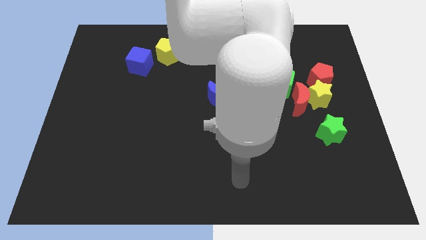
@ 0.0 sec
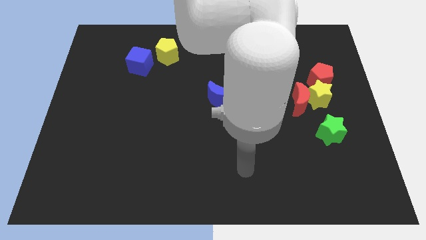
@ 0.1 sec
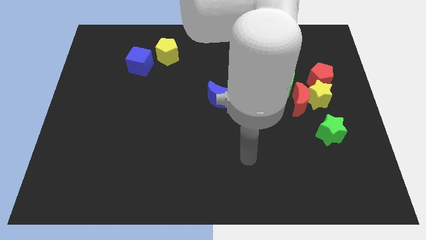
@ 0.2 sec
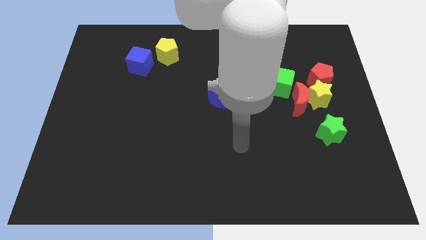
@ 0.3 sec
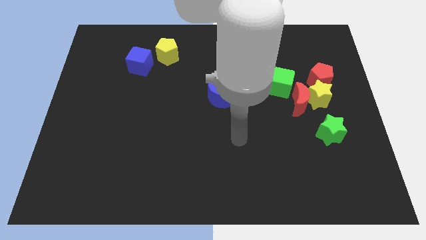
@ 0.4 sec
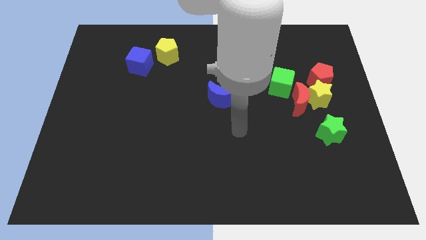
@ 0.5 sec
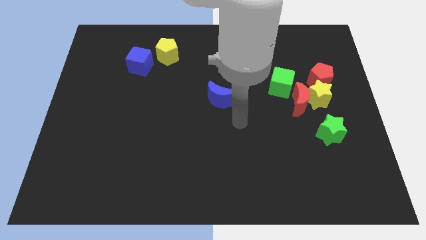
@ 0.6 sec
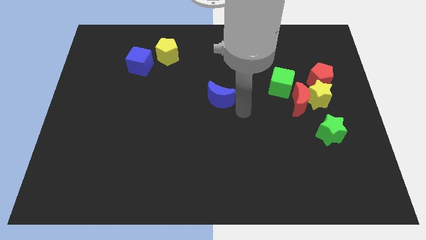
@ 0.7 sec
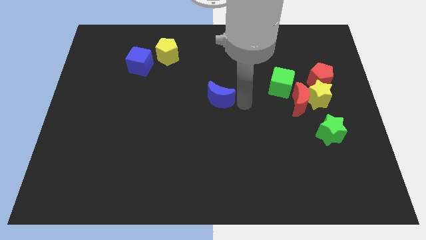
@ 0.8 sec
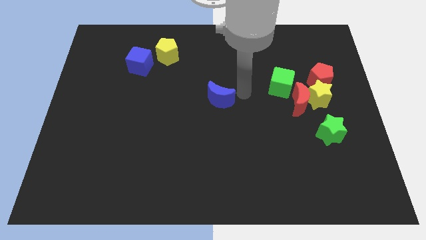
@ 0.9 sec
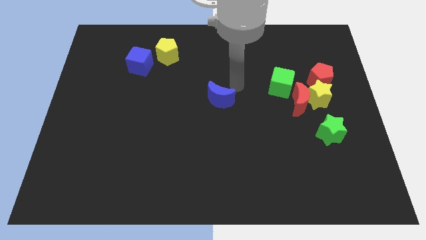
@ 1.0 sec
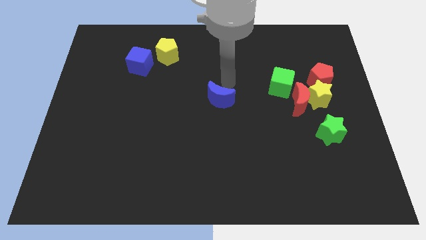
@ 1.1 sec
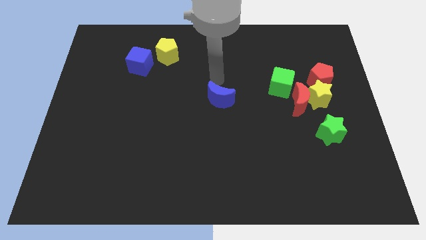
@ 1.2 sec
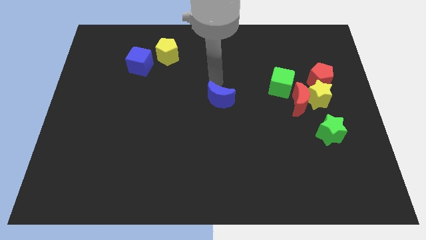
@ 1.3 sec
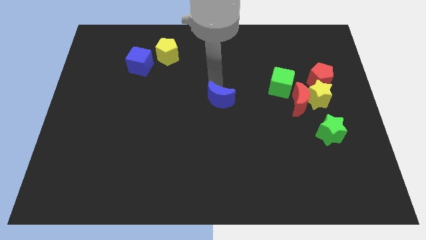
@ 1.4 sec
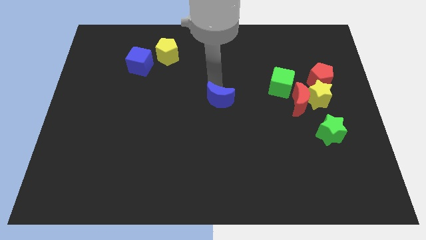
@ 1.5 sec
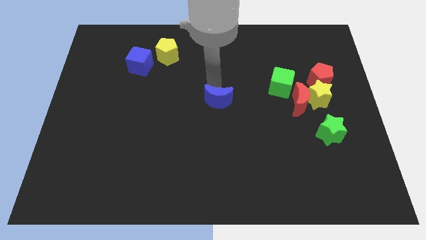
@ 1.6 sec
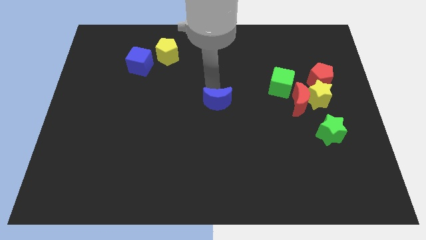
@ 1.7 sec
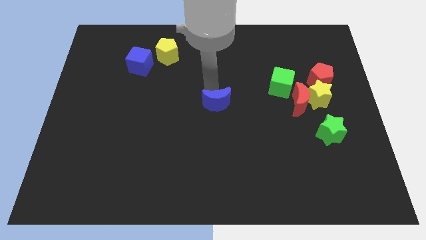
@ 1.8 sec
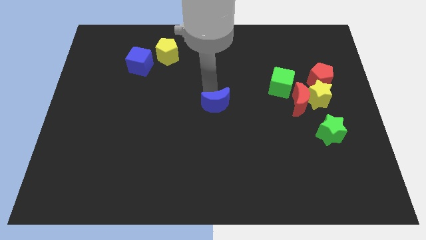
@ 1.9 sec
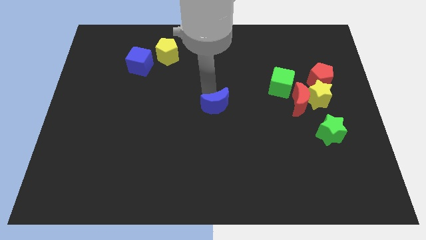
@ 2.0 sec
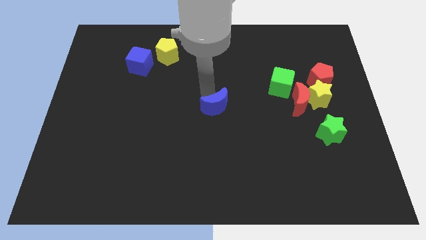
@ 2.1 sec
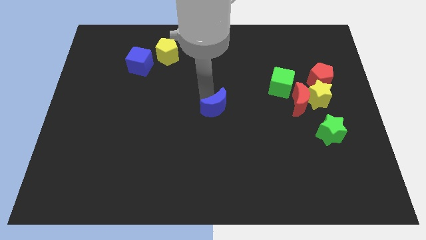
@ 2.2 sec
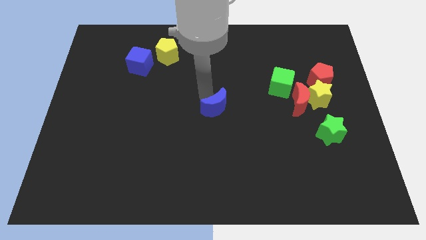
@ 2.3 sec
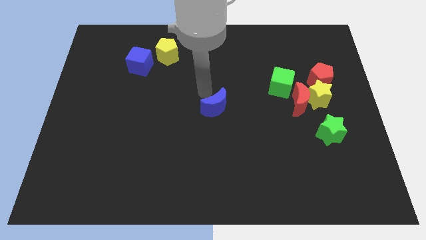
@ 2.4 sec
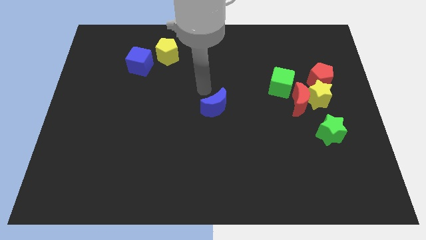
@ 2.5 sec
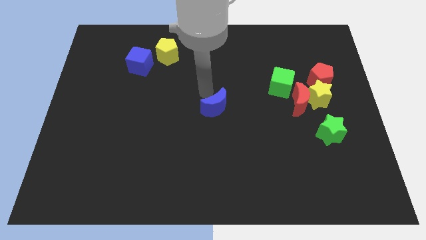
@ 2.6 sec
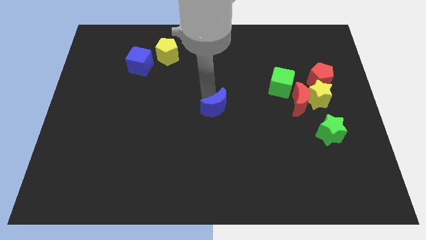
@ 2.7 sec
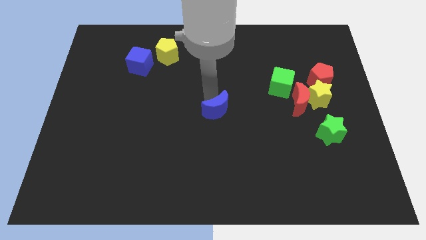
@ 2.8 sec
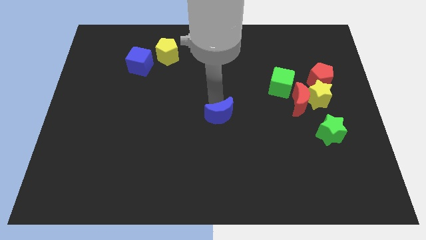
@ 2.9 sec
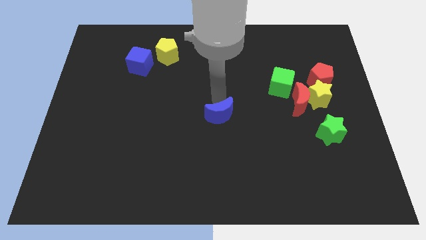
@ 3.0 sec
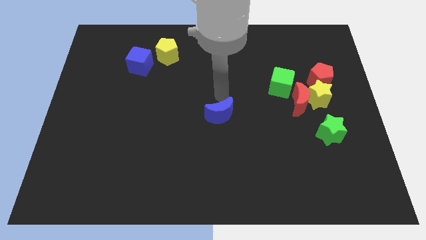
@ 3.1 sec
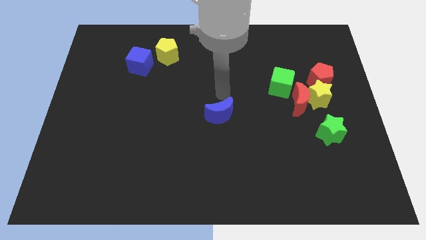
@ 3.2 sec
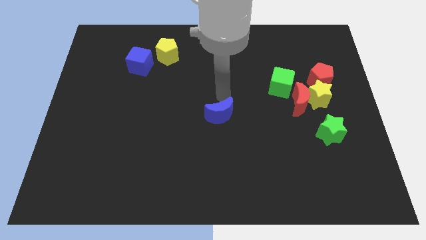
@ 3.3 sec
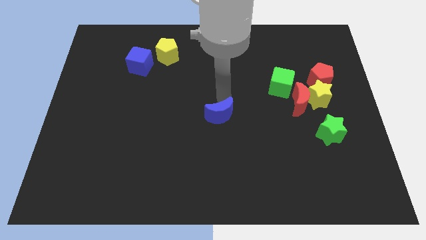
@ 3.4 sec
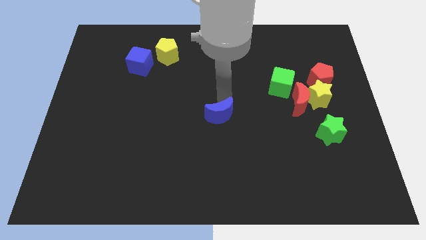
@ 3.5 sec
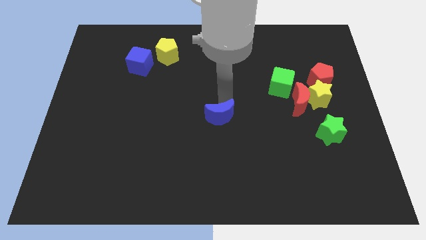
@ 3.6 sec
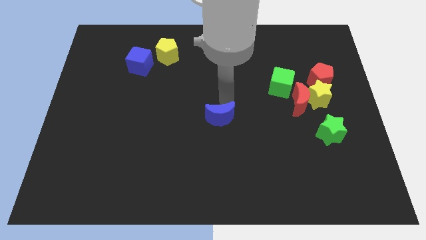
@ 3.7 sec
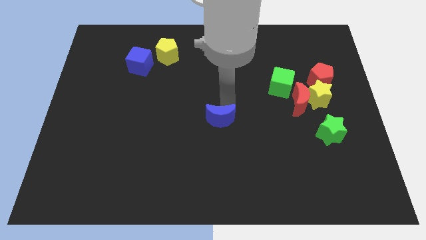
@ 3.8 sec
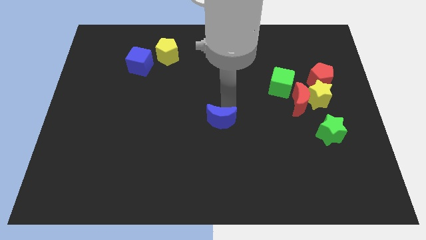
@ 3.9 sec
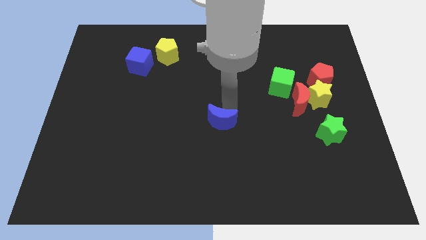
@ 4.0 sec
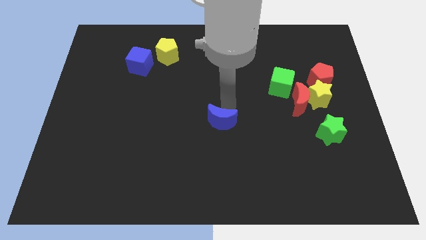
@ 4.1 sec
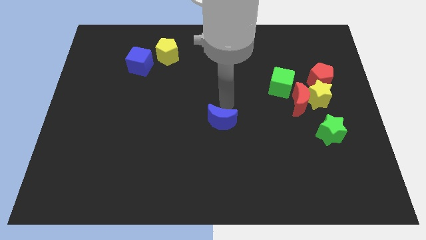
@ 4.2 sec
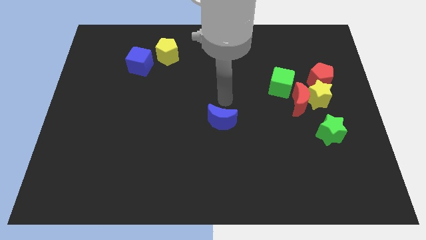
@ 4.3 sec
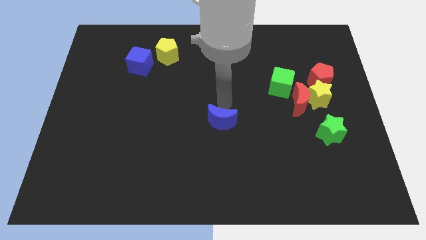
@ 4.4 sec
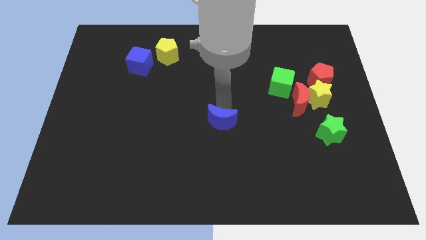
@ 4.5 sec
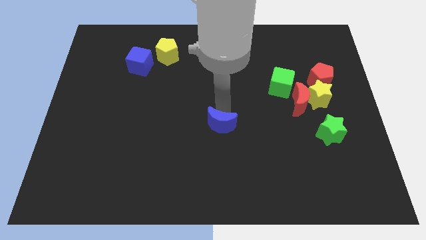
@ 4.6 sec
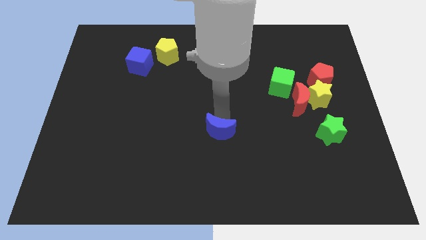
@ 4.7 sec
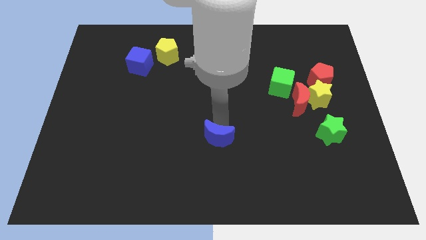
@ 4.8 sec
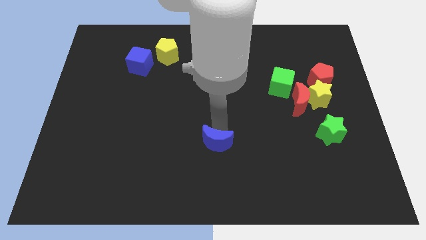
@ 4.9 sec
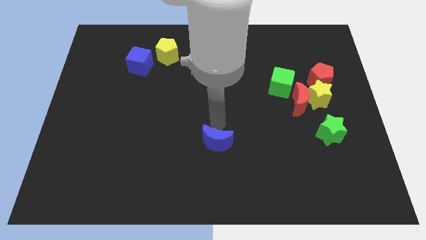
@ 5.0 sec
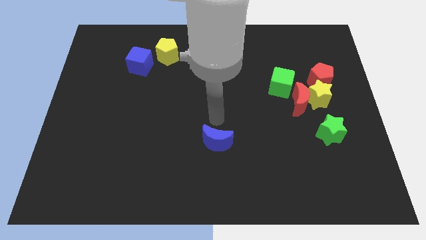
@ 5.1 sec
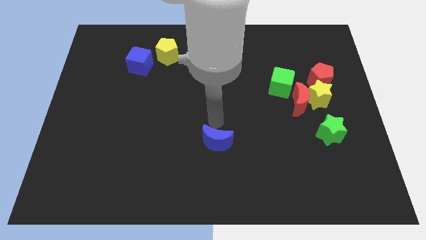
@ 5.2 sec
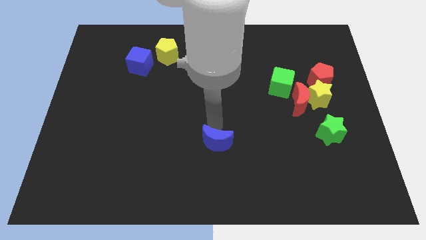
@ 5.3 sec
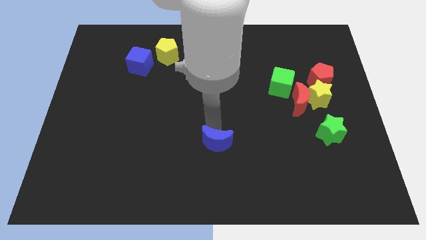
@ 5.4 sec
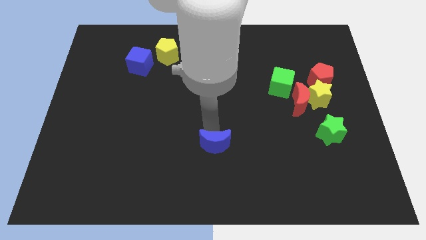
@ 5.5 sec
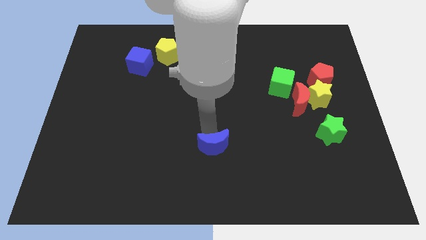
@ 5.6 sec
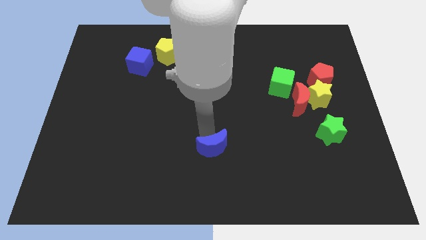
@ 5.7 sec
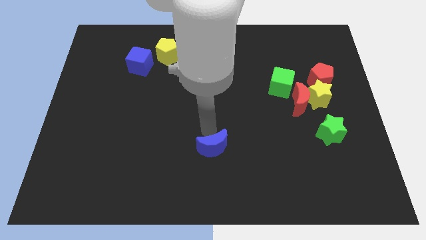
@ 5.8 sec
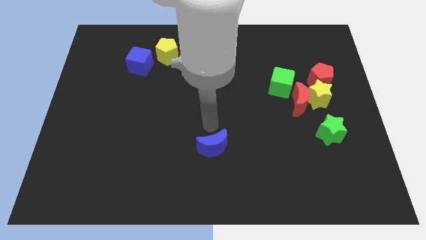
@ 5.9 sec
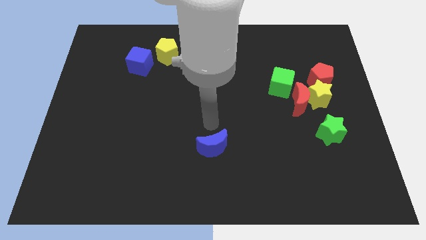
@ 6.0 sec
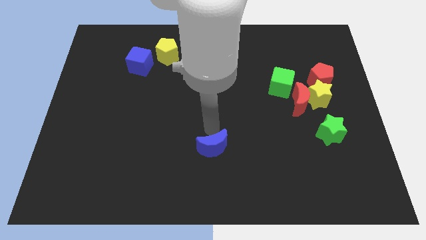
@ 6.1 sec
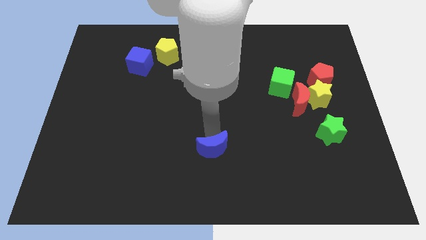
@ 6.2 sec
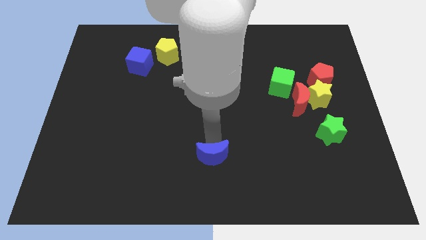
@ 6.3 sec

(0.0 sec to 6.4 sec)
move the blue moon to the bottom side
